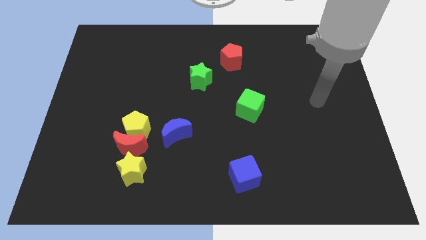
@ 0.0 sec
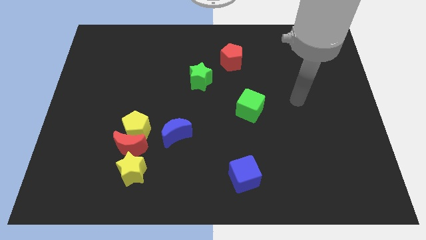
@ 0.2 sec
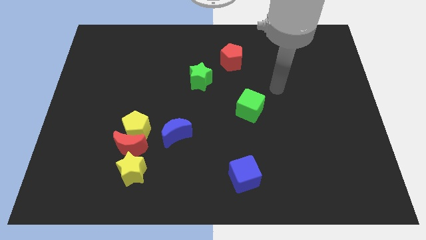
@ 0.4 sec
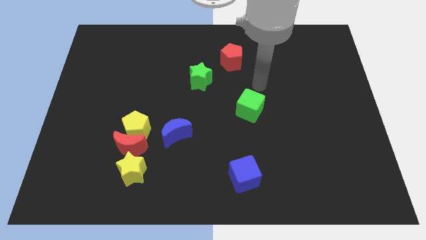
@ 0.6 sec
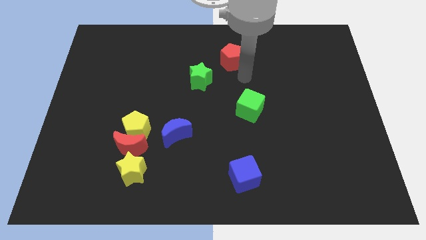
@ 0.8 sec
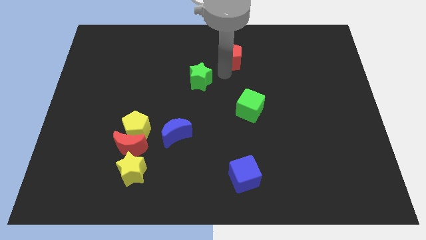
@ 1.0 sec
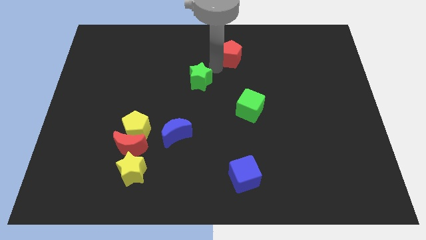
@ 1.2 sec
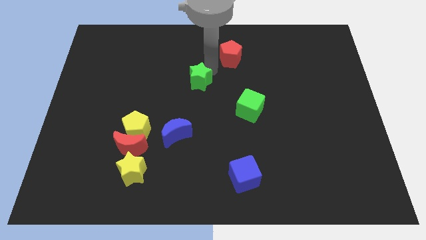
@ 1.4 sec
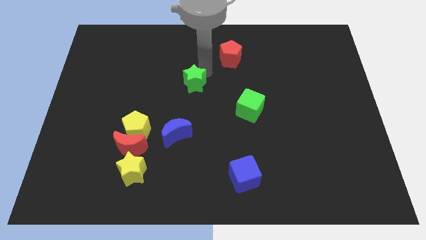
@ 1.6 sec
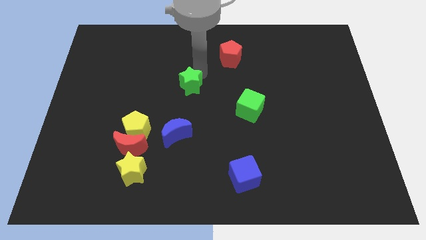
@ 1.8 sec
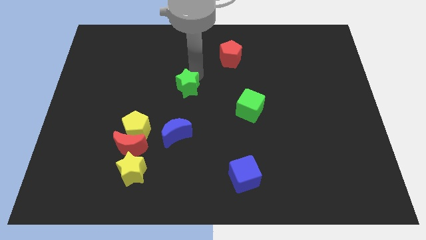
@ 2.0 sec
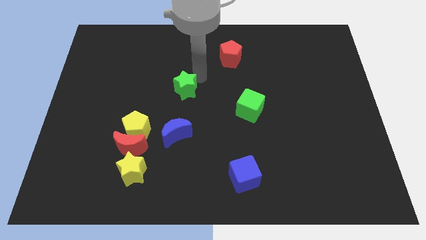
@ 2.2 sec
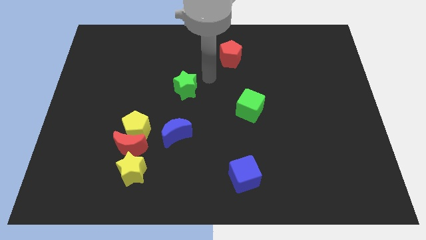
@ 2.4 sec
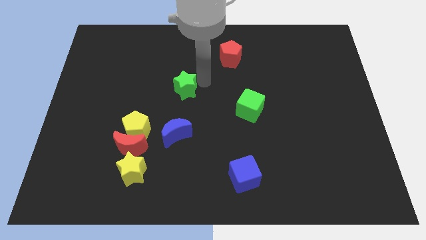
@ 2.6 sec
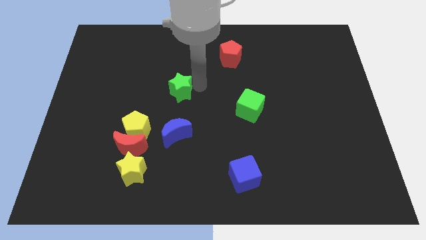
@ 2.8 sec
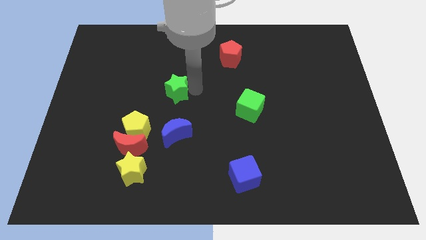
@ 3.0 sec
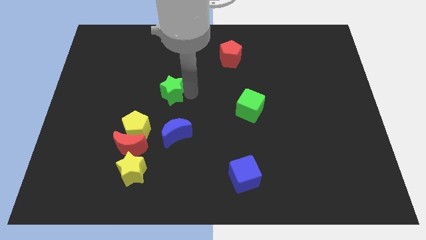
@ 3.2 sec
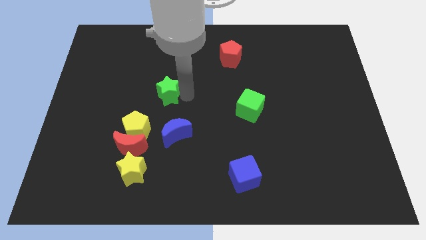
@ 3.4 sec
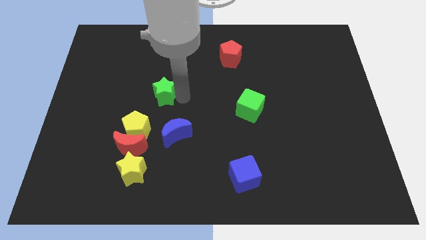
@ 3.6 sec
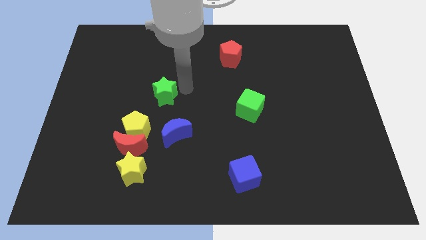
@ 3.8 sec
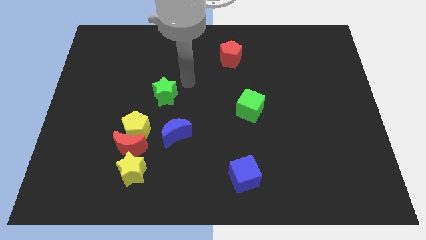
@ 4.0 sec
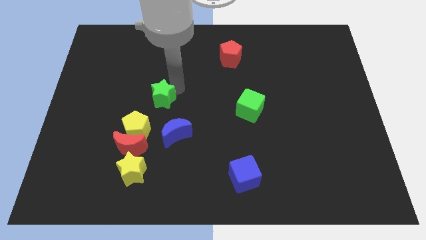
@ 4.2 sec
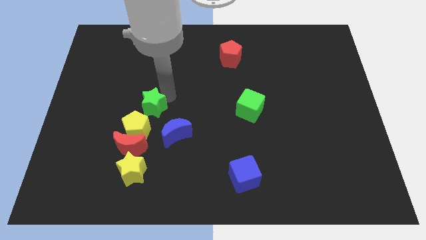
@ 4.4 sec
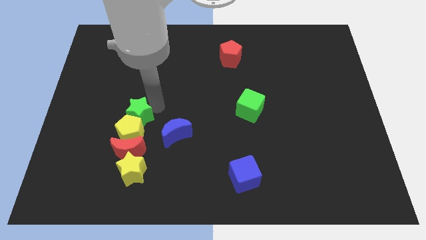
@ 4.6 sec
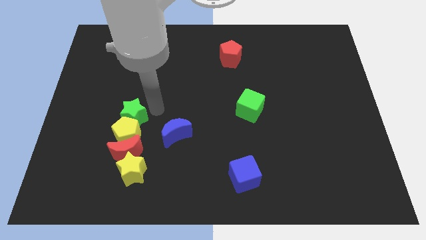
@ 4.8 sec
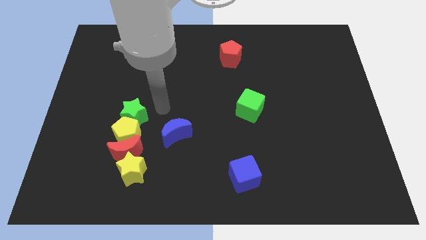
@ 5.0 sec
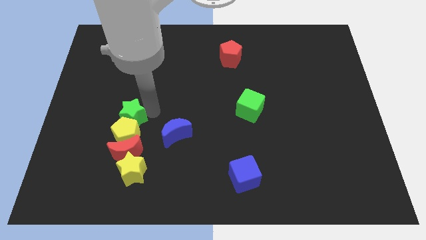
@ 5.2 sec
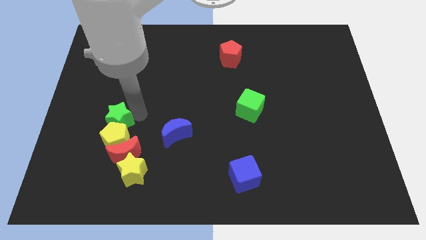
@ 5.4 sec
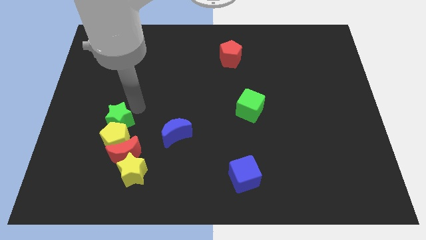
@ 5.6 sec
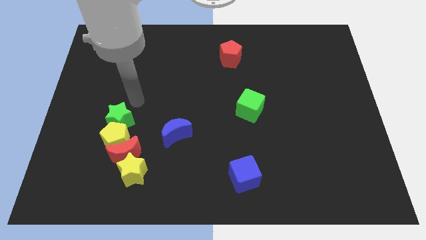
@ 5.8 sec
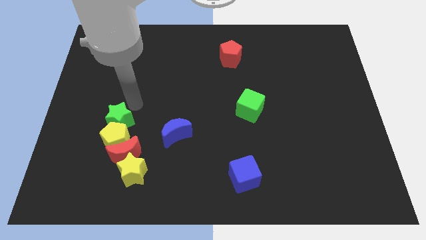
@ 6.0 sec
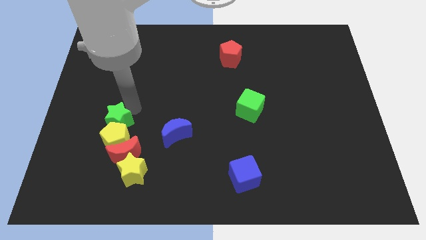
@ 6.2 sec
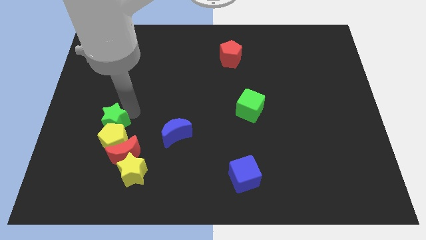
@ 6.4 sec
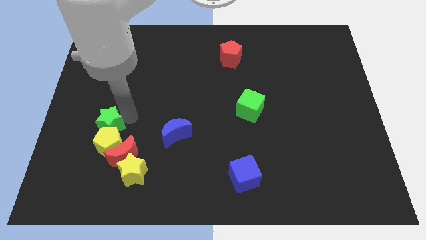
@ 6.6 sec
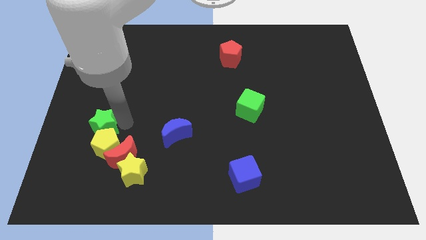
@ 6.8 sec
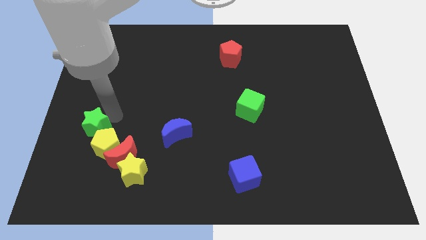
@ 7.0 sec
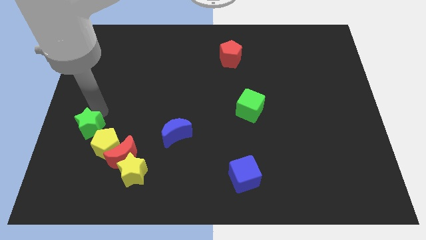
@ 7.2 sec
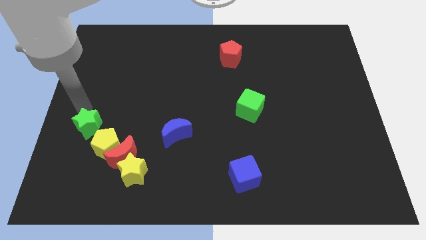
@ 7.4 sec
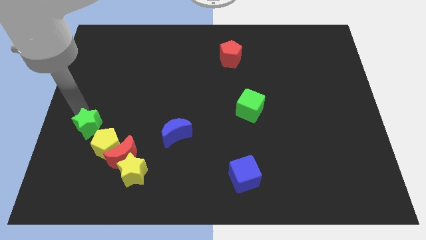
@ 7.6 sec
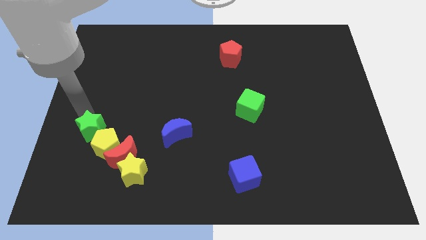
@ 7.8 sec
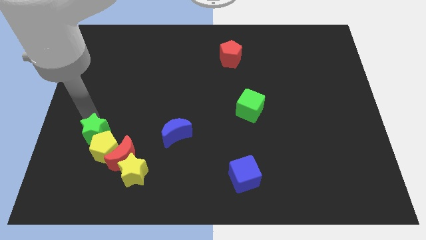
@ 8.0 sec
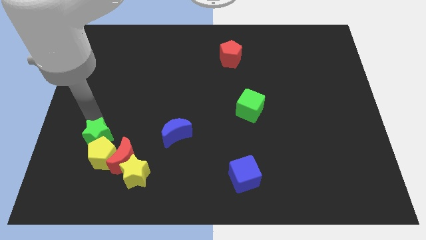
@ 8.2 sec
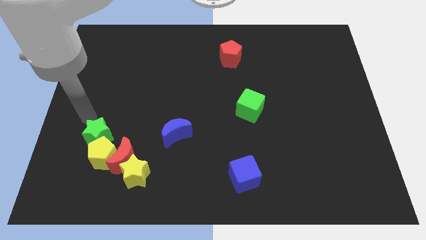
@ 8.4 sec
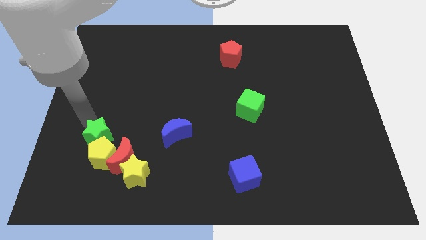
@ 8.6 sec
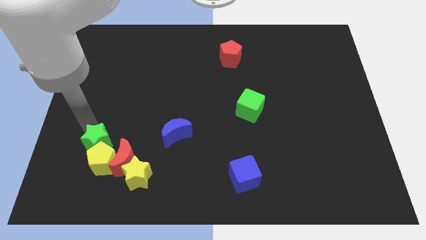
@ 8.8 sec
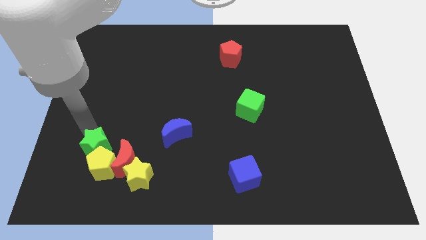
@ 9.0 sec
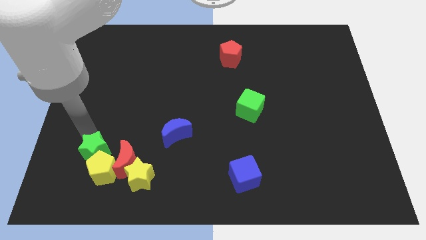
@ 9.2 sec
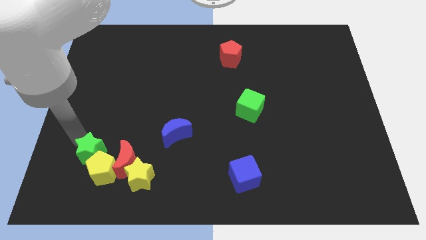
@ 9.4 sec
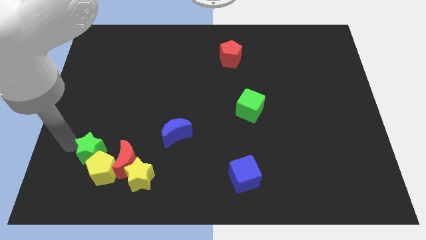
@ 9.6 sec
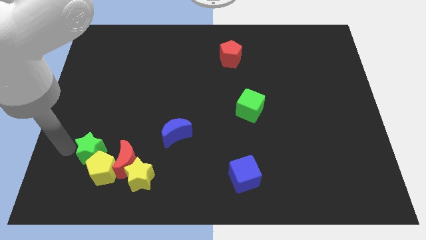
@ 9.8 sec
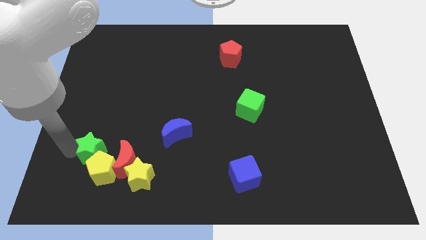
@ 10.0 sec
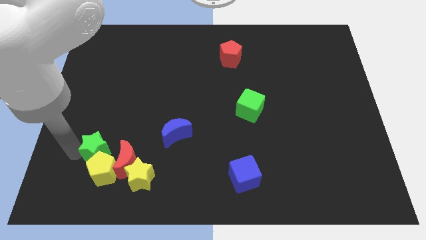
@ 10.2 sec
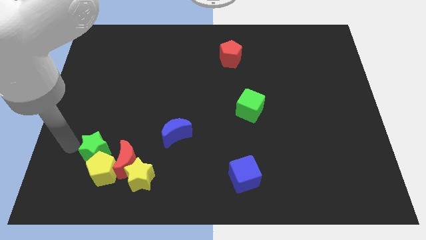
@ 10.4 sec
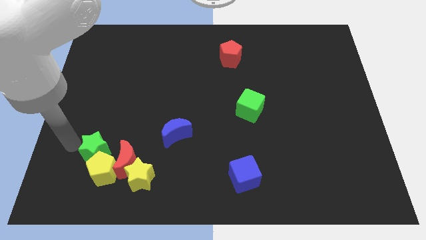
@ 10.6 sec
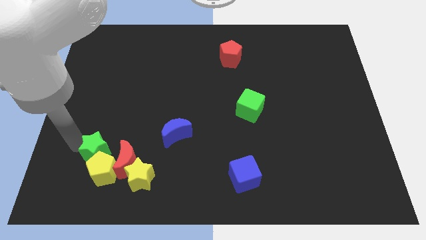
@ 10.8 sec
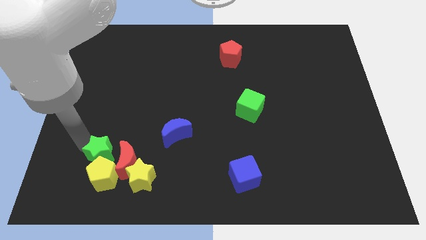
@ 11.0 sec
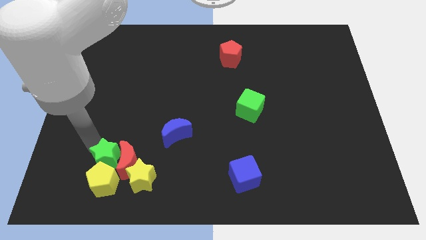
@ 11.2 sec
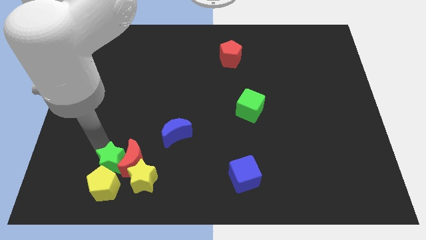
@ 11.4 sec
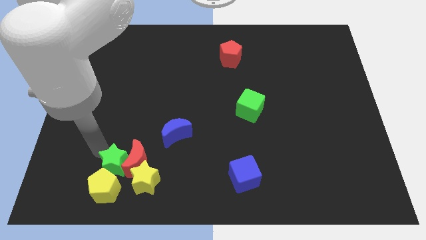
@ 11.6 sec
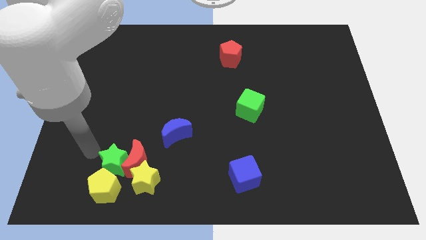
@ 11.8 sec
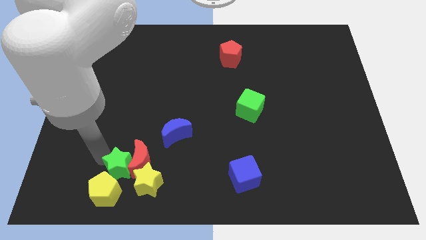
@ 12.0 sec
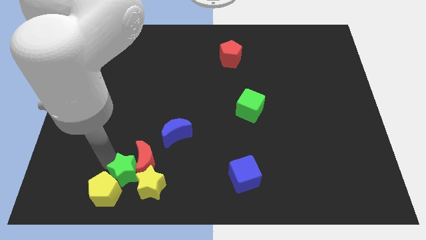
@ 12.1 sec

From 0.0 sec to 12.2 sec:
slide the green star next to the yellow star

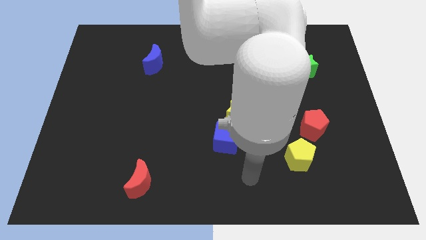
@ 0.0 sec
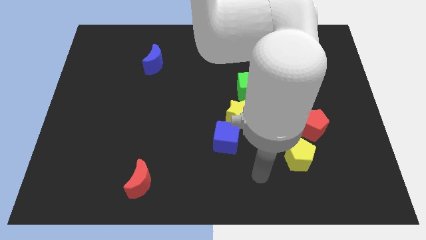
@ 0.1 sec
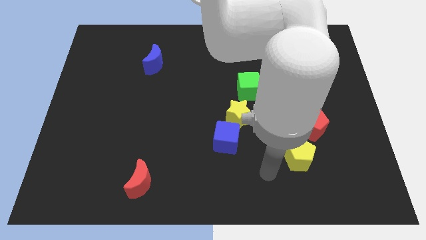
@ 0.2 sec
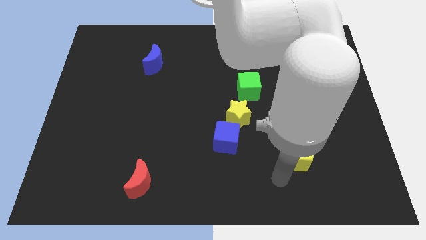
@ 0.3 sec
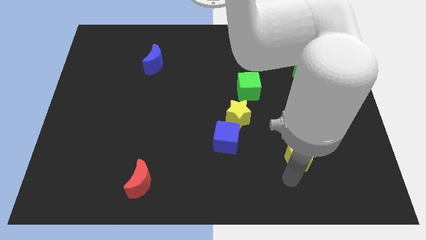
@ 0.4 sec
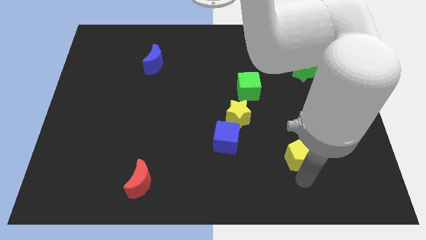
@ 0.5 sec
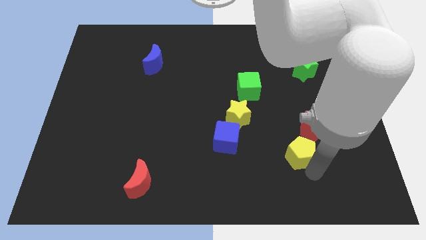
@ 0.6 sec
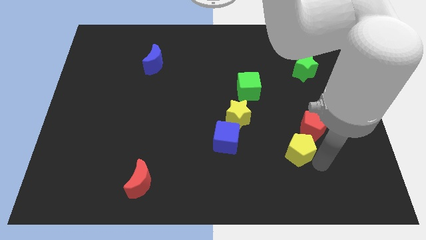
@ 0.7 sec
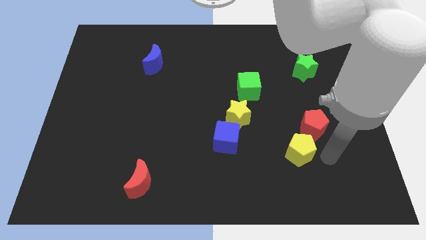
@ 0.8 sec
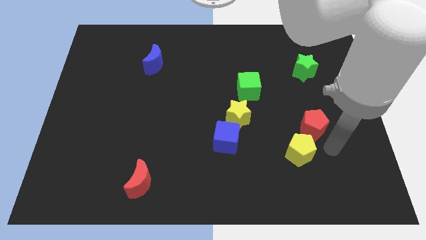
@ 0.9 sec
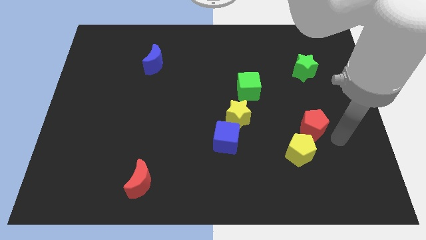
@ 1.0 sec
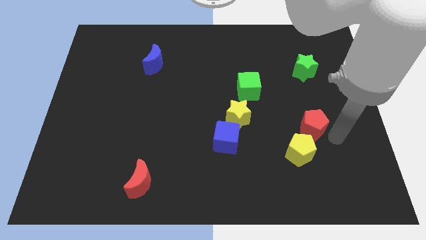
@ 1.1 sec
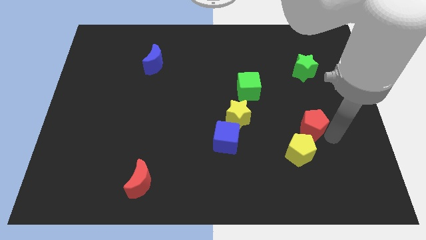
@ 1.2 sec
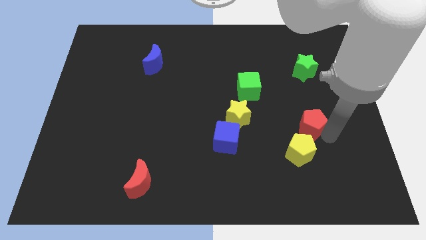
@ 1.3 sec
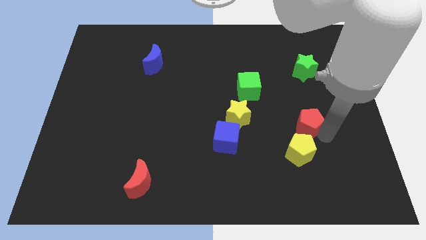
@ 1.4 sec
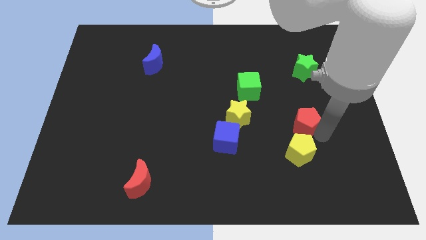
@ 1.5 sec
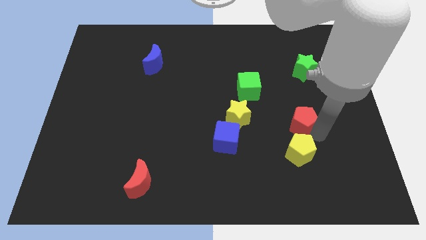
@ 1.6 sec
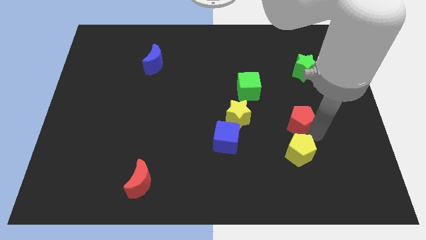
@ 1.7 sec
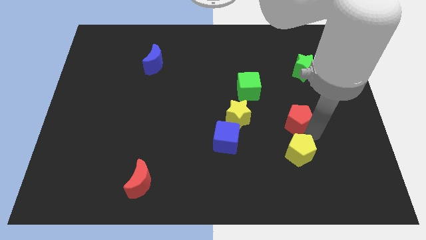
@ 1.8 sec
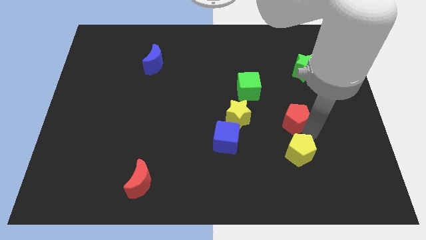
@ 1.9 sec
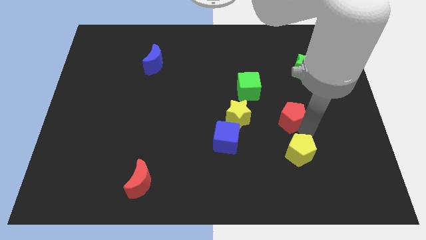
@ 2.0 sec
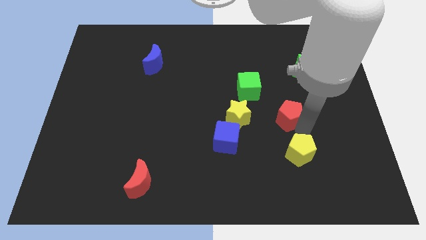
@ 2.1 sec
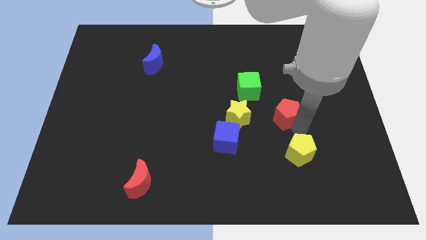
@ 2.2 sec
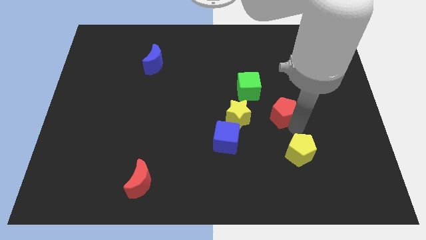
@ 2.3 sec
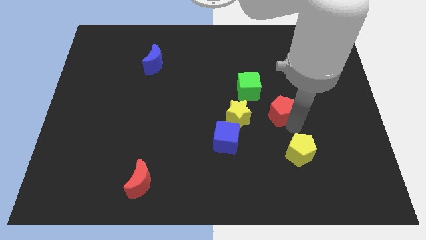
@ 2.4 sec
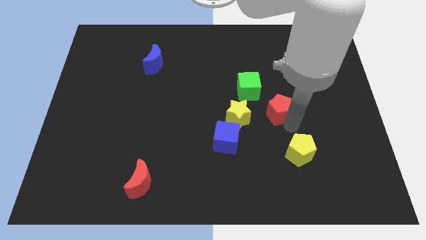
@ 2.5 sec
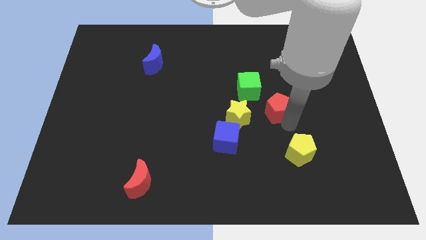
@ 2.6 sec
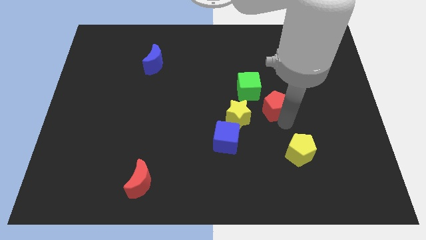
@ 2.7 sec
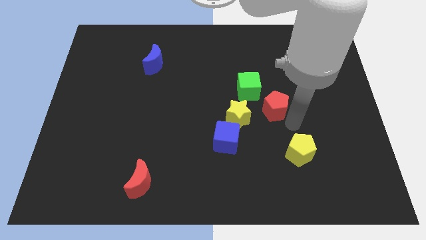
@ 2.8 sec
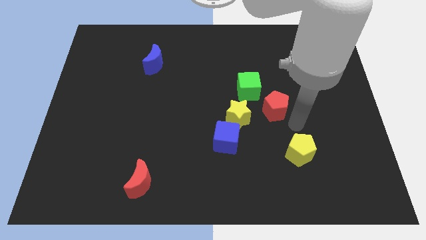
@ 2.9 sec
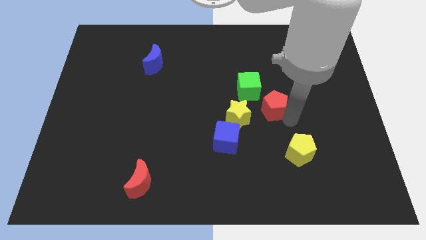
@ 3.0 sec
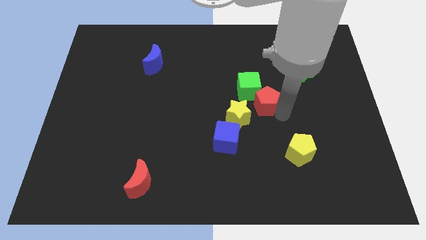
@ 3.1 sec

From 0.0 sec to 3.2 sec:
slide the red pentagon next to the green cube
